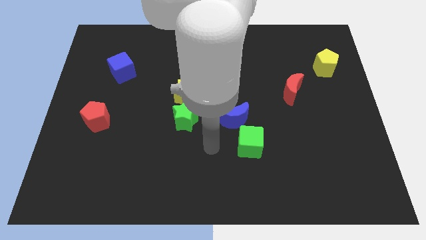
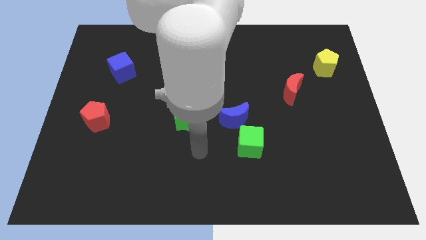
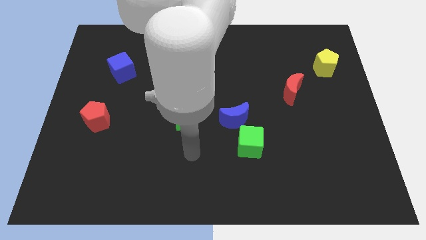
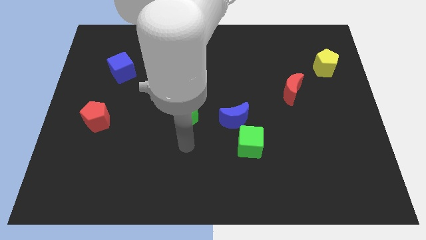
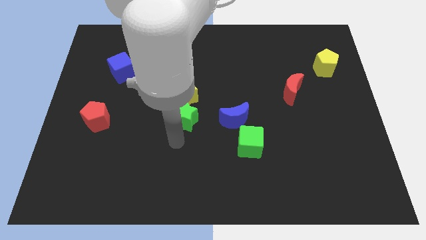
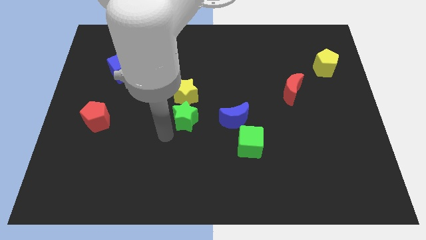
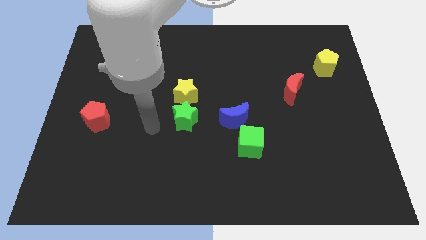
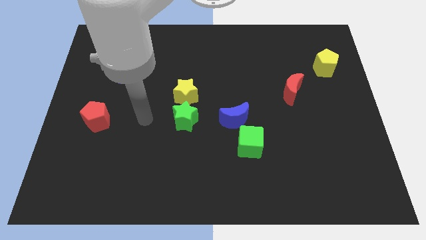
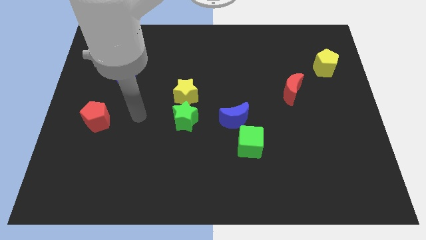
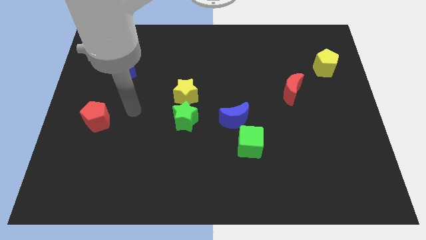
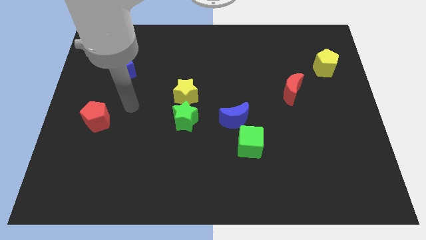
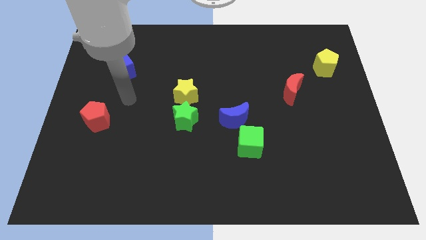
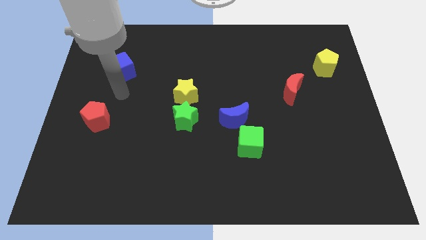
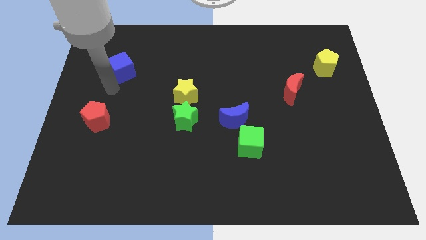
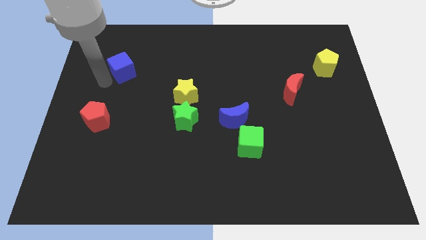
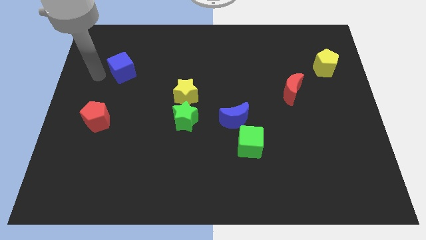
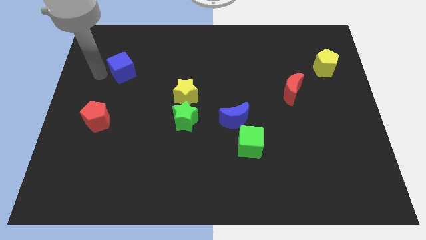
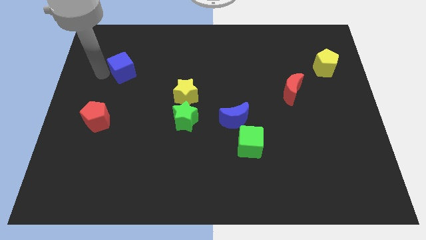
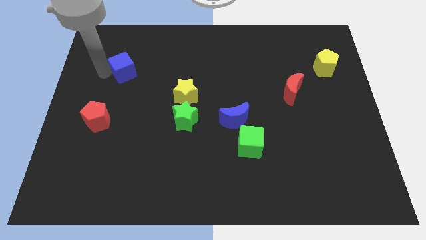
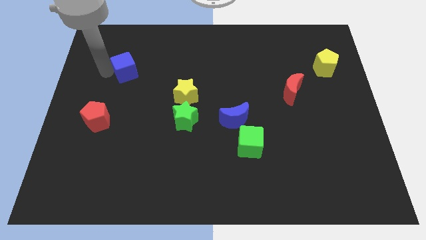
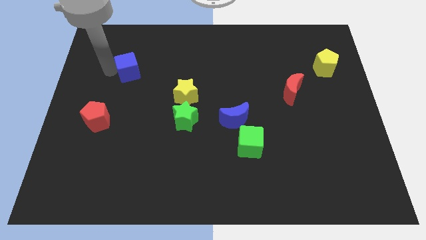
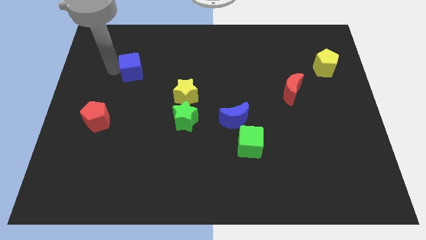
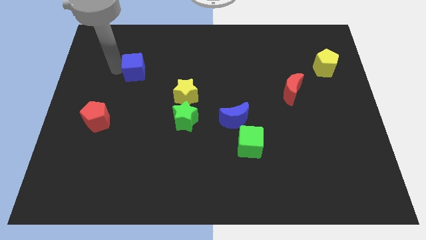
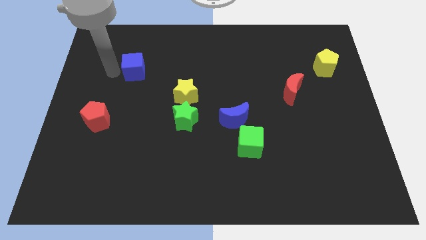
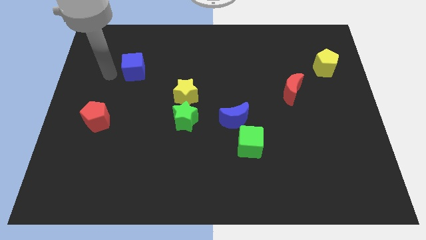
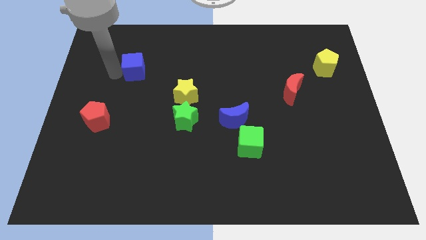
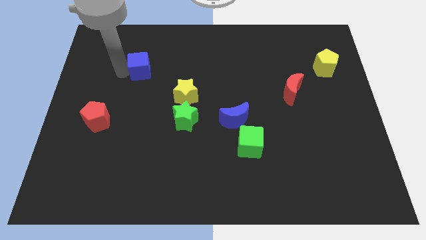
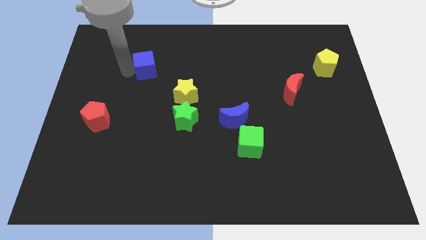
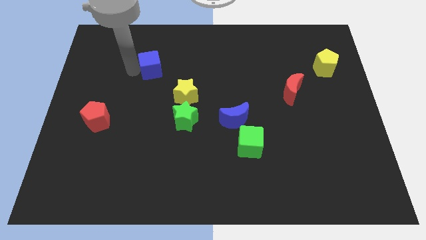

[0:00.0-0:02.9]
push the blue cube right somewhat

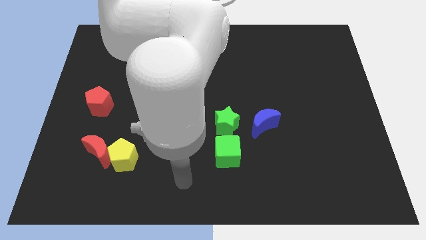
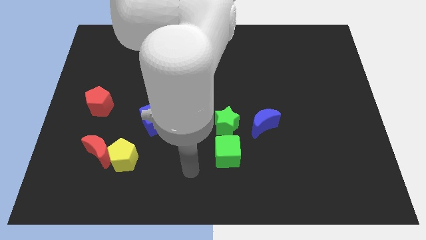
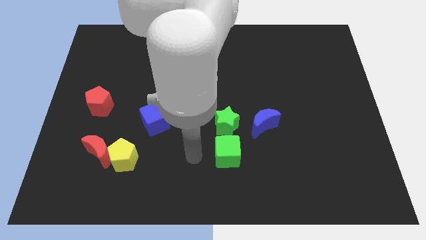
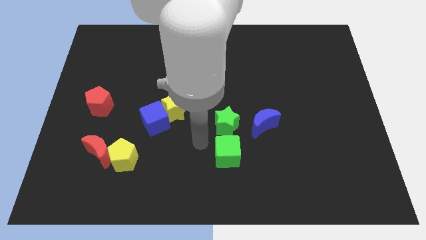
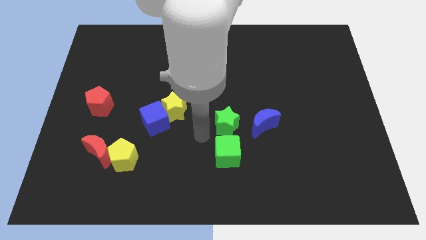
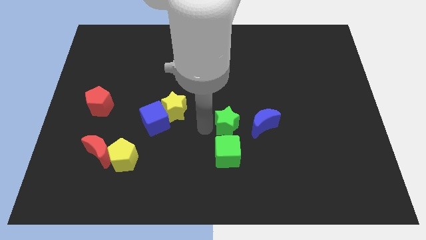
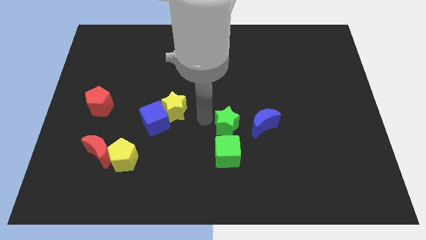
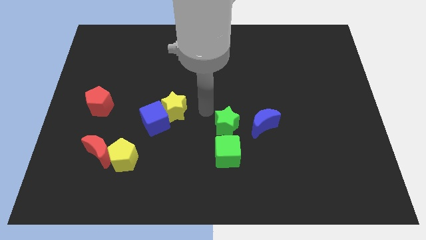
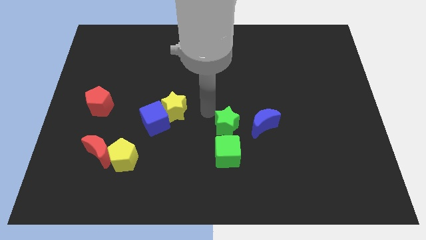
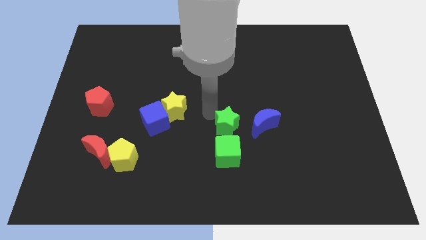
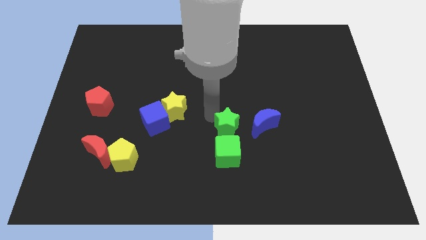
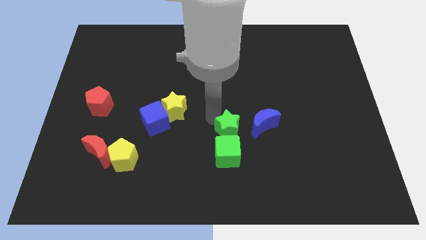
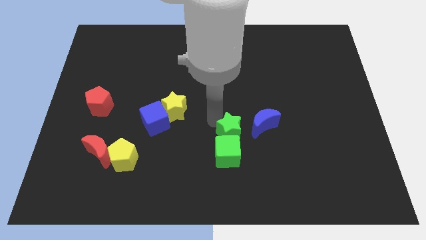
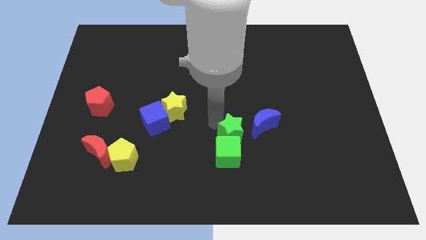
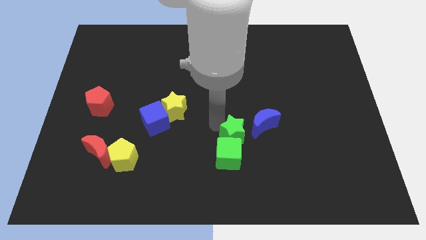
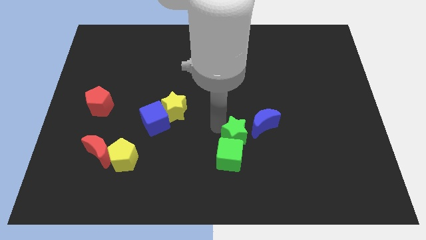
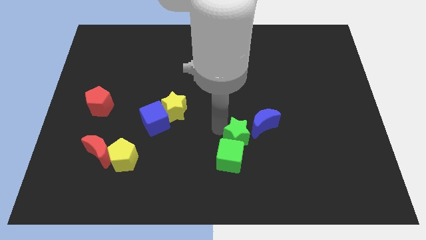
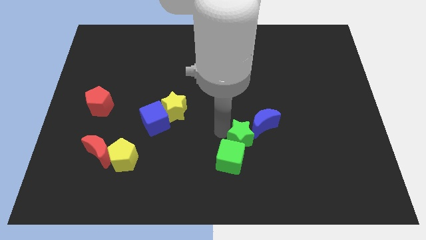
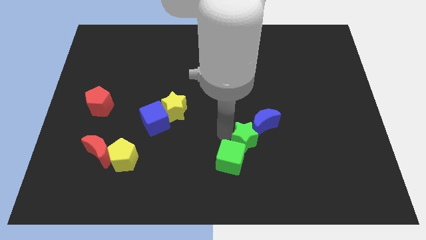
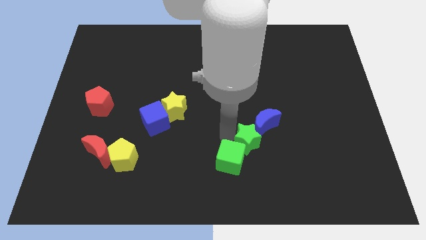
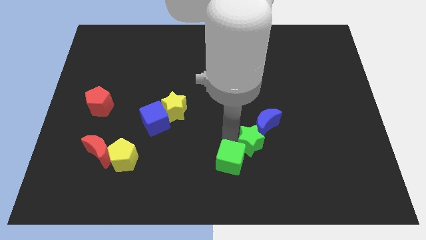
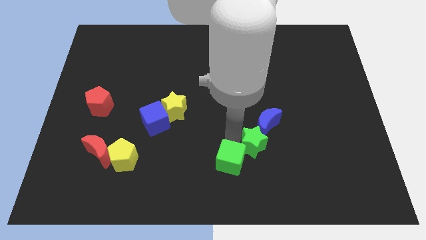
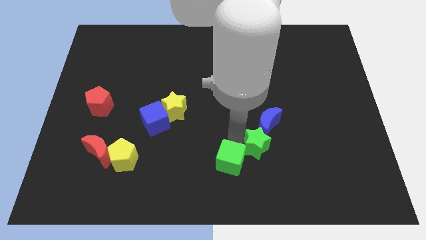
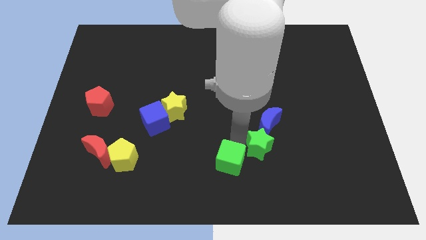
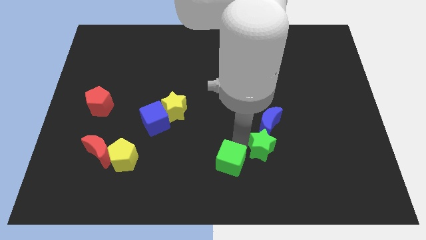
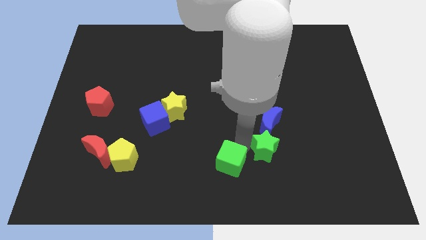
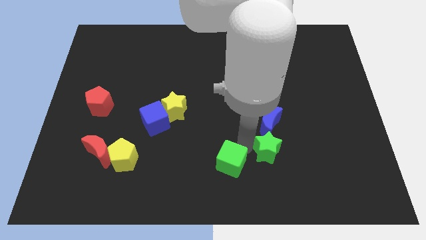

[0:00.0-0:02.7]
slide the green star right somewhat

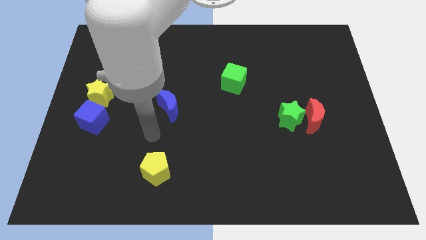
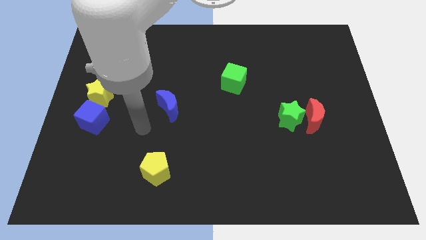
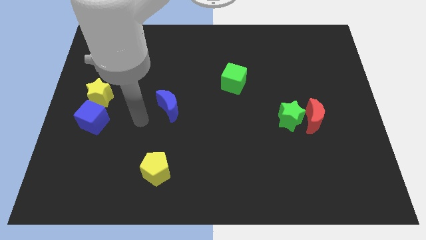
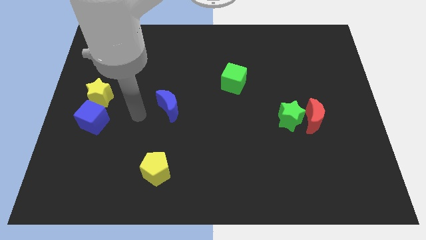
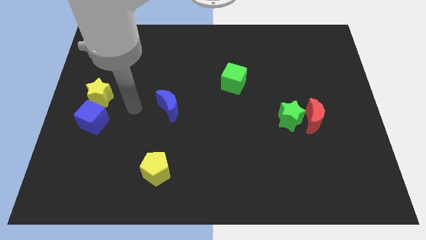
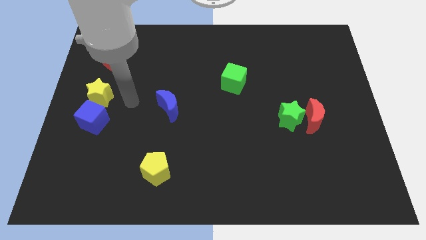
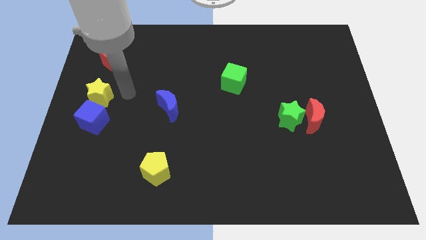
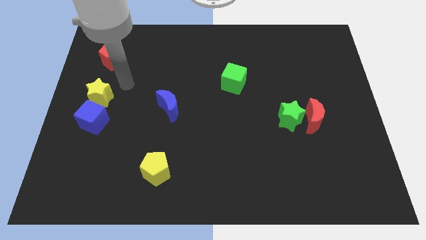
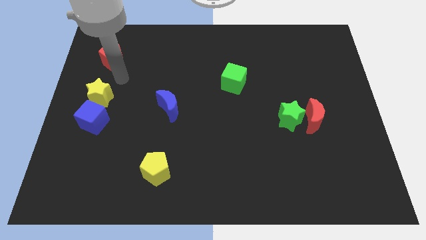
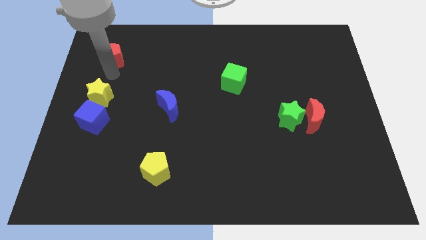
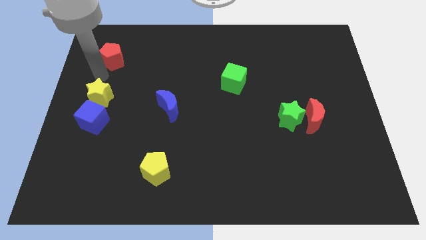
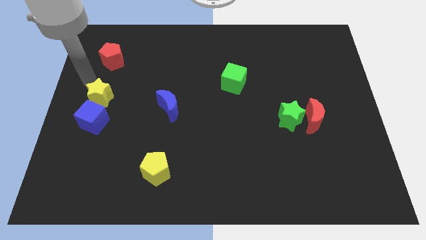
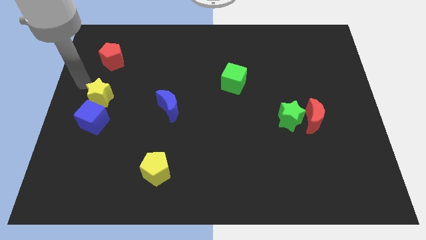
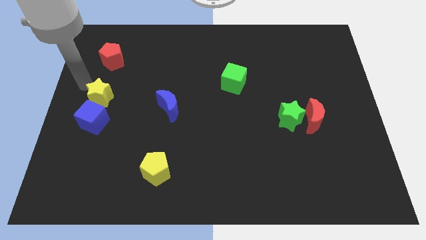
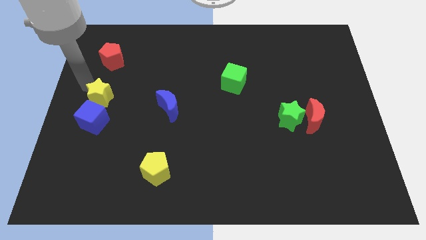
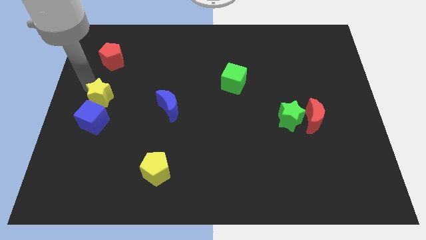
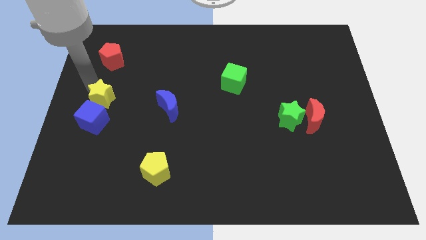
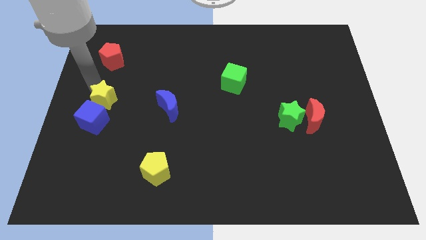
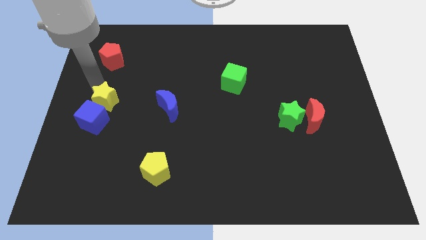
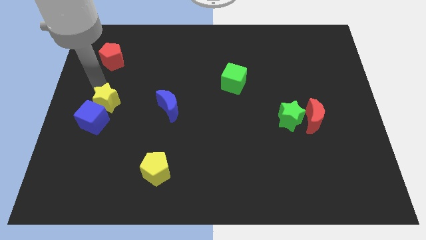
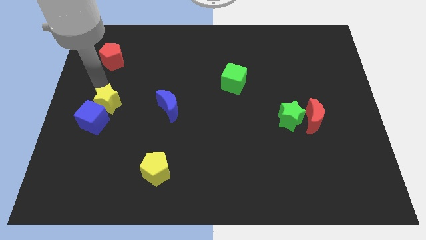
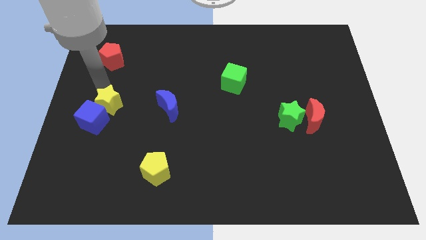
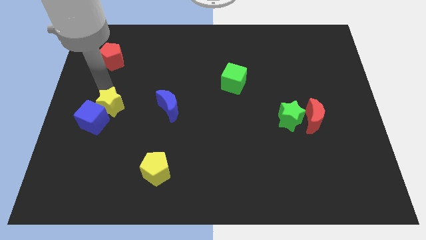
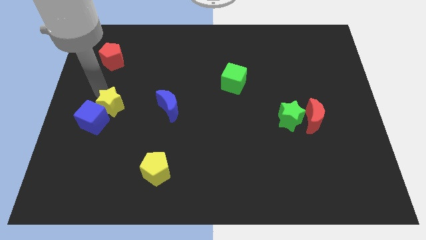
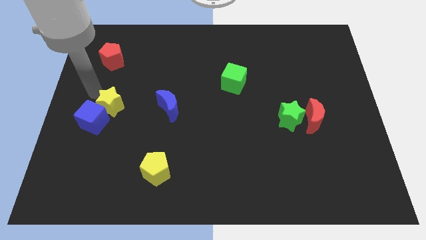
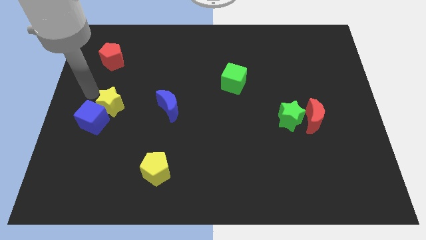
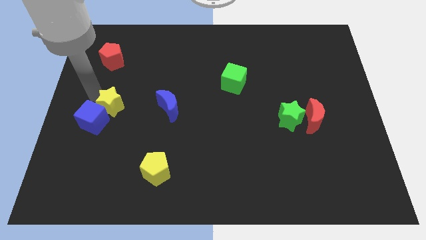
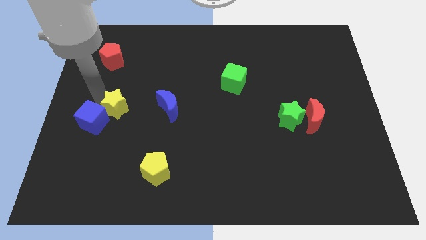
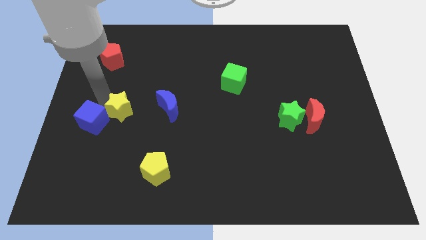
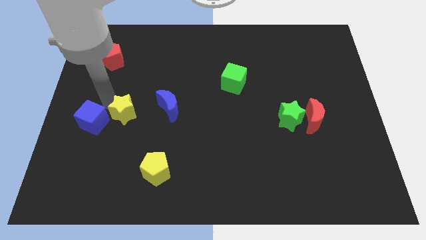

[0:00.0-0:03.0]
slide the yellow star somewhat down and right
